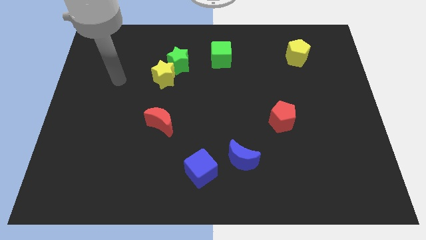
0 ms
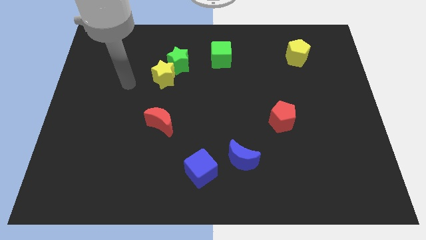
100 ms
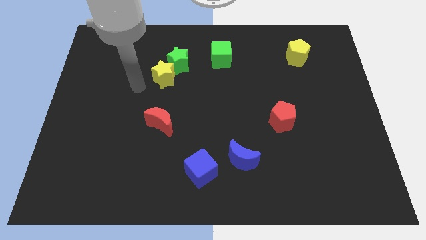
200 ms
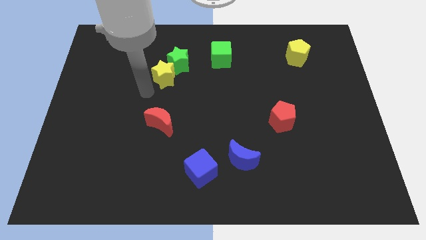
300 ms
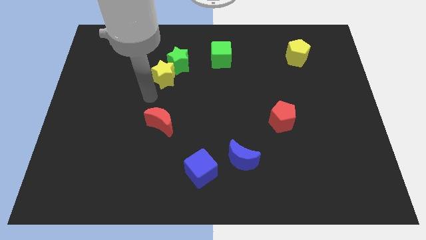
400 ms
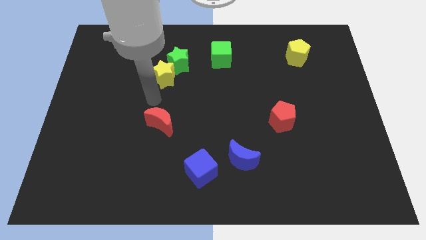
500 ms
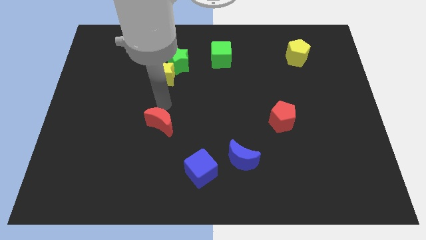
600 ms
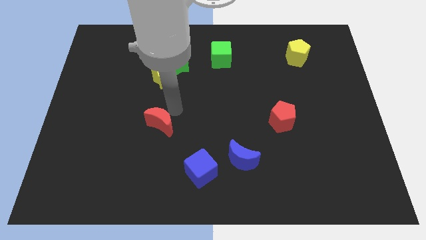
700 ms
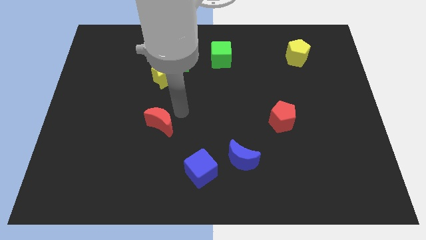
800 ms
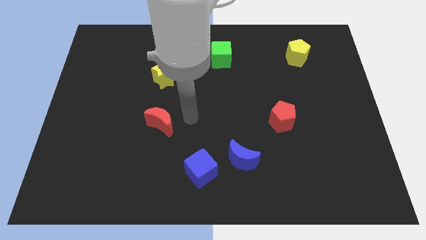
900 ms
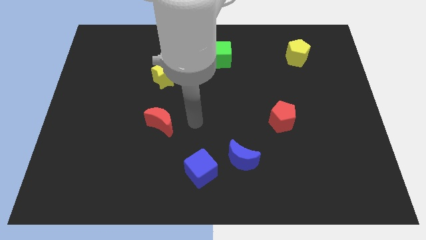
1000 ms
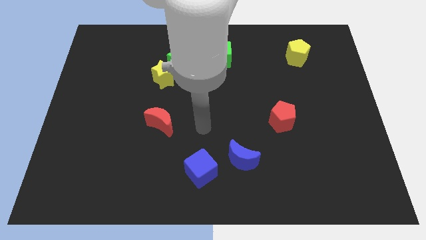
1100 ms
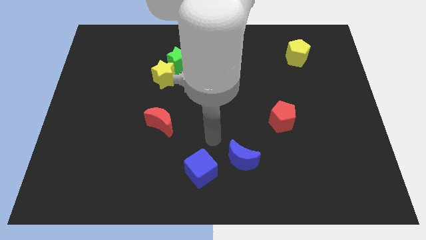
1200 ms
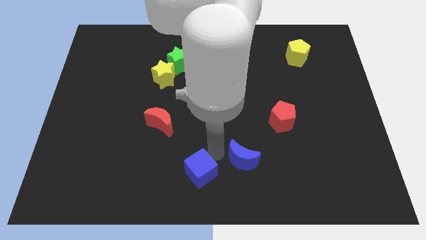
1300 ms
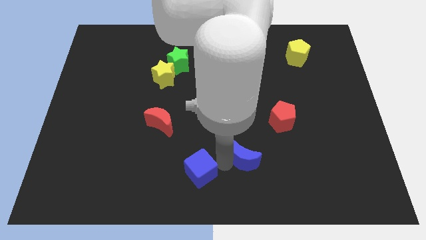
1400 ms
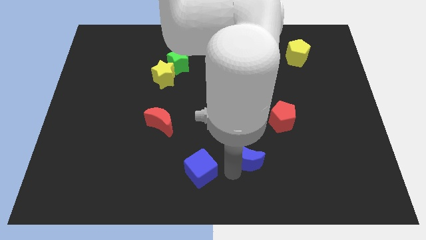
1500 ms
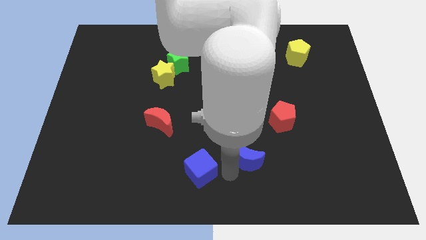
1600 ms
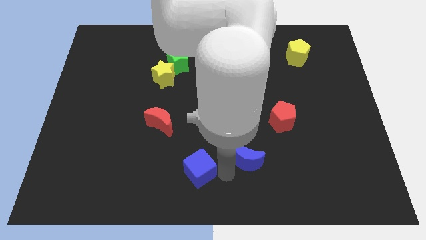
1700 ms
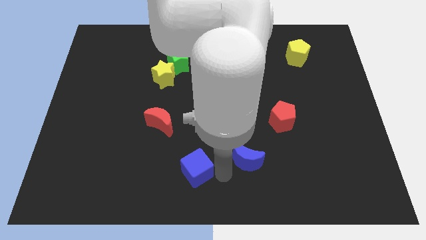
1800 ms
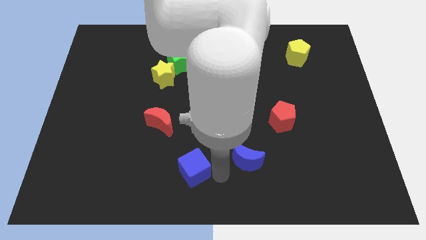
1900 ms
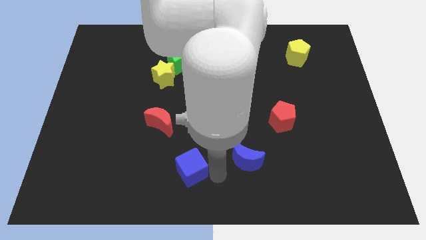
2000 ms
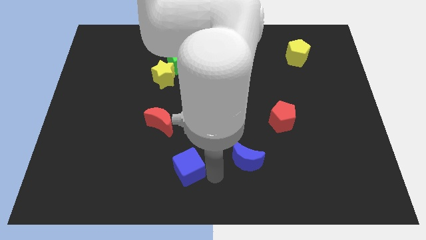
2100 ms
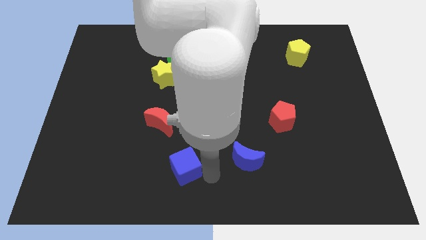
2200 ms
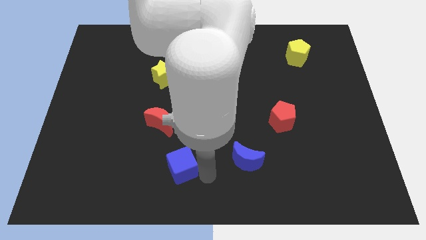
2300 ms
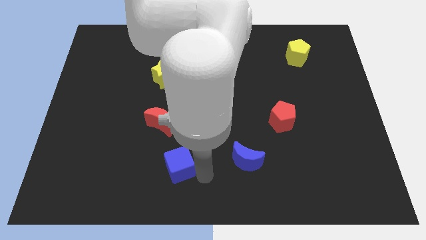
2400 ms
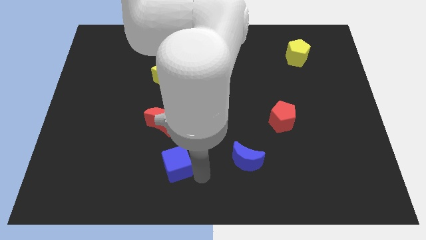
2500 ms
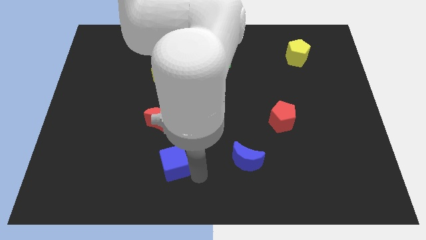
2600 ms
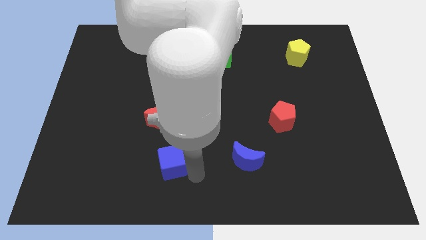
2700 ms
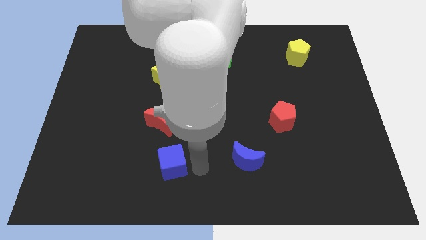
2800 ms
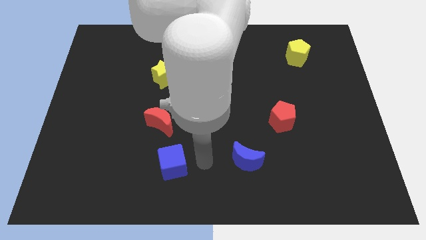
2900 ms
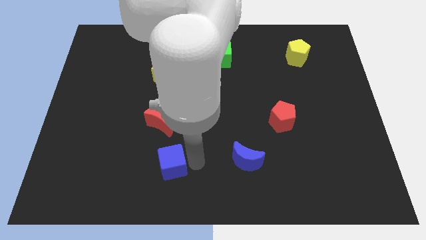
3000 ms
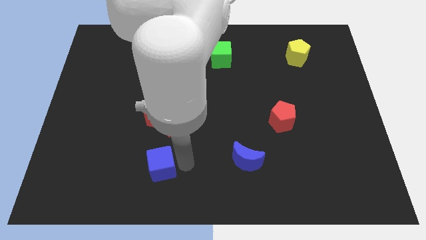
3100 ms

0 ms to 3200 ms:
slide the blue cube slightly to the left

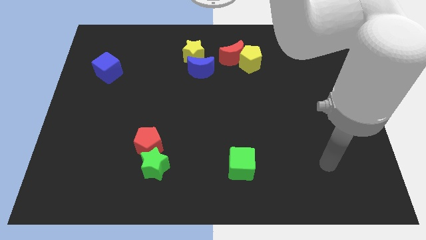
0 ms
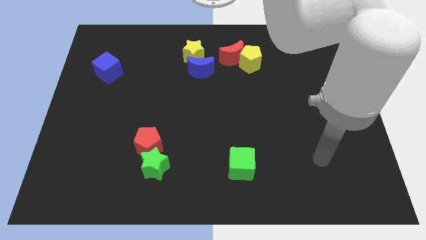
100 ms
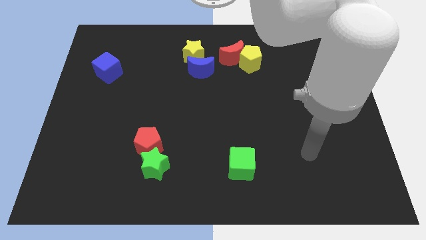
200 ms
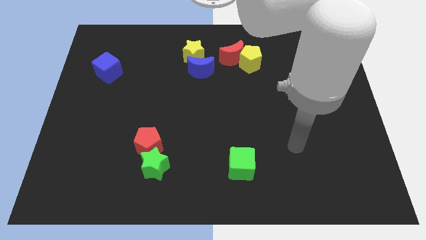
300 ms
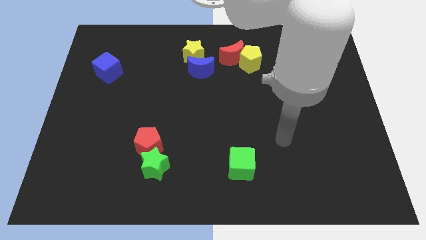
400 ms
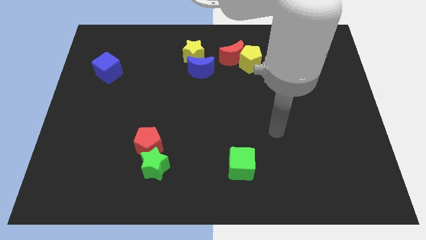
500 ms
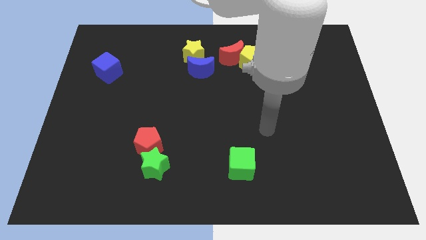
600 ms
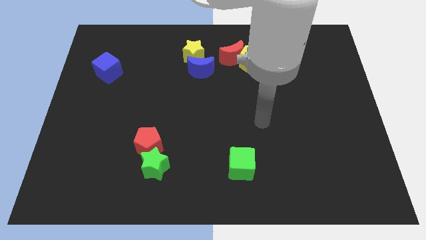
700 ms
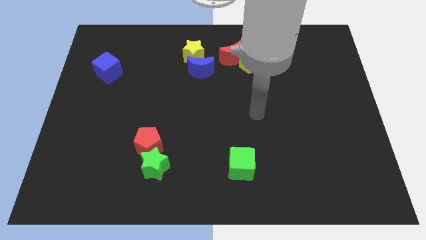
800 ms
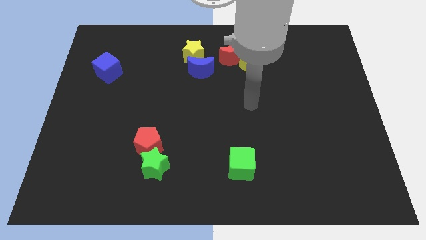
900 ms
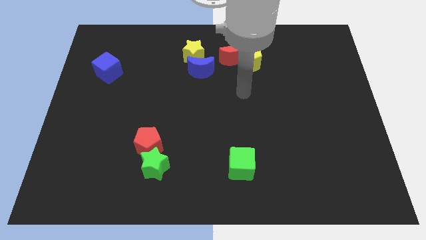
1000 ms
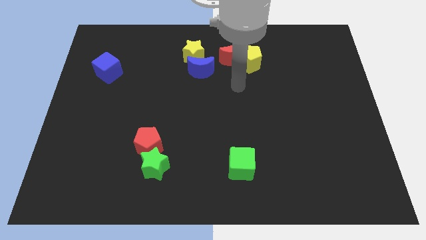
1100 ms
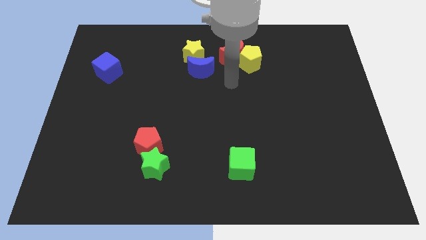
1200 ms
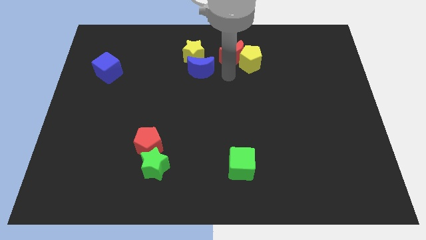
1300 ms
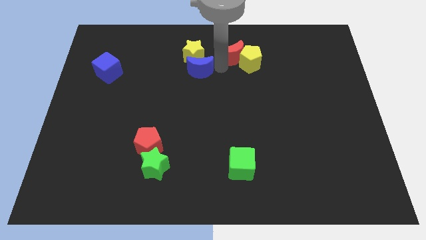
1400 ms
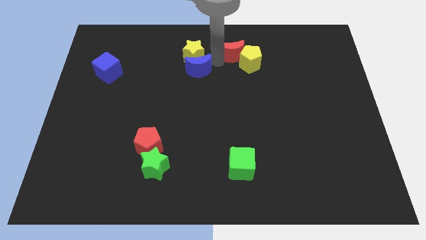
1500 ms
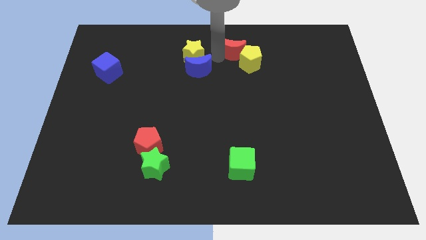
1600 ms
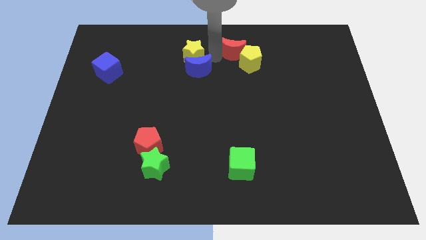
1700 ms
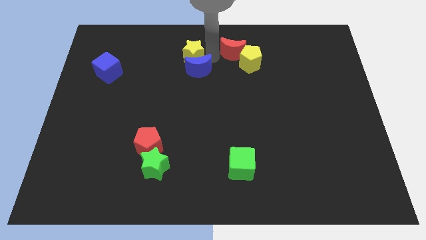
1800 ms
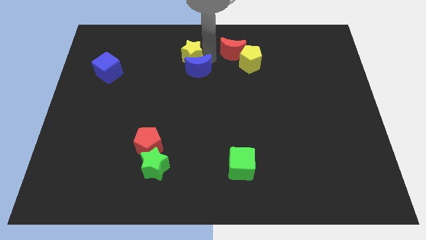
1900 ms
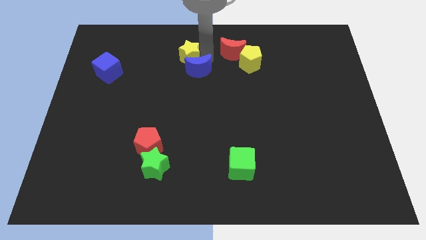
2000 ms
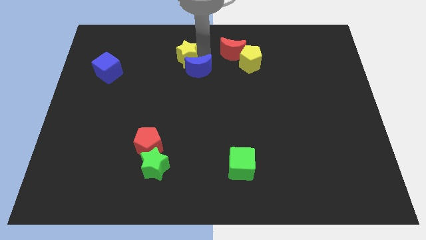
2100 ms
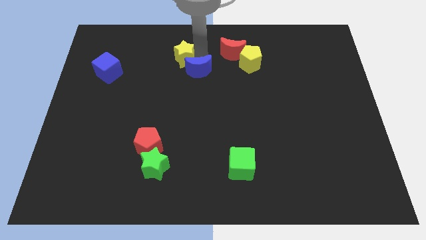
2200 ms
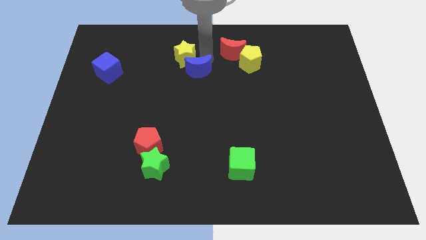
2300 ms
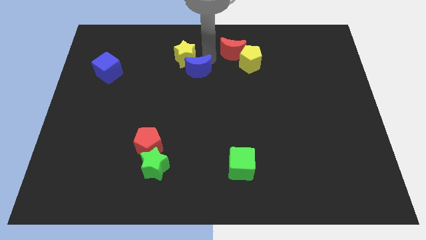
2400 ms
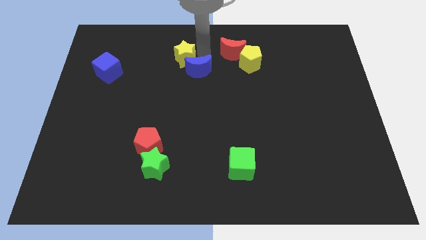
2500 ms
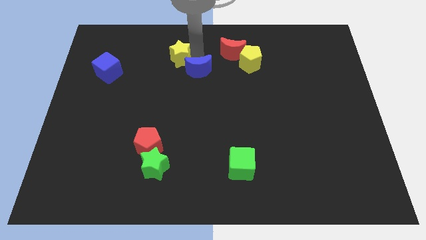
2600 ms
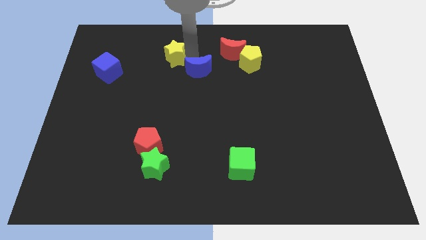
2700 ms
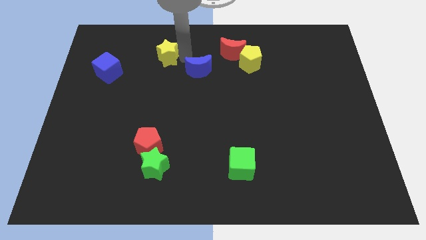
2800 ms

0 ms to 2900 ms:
move the yellow star slightly left

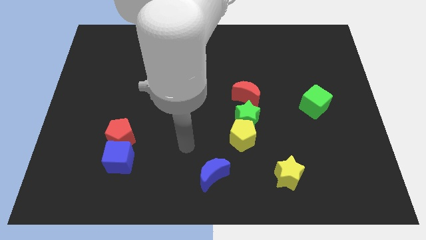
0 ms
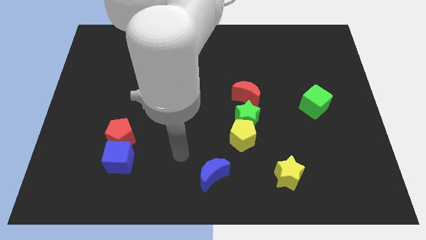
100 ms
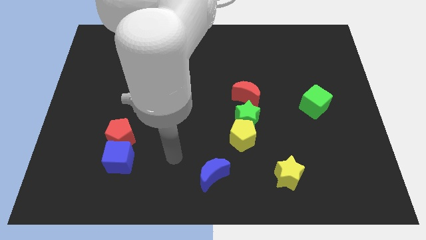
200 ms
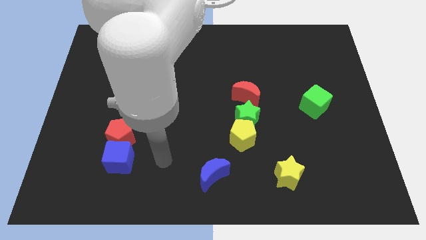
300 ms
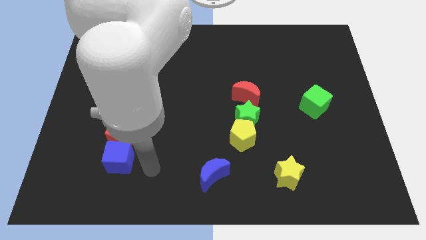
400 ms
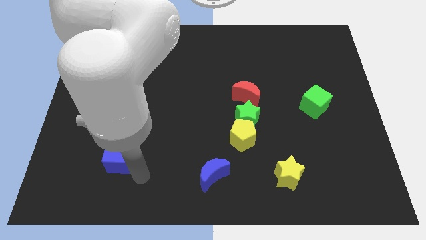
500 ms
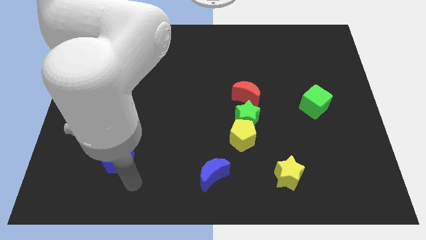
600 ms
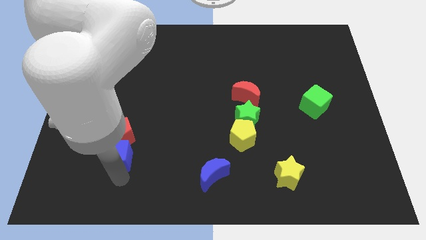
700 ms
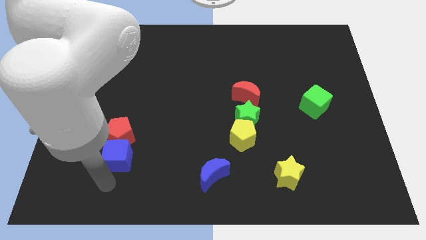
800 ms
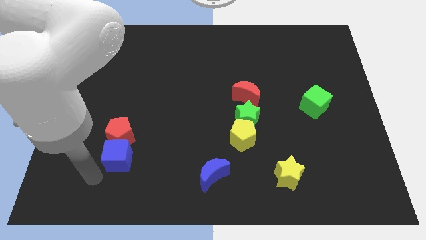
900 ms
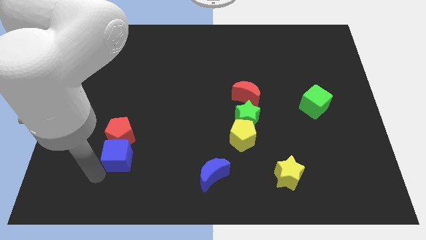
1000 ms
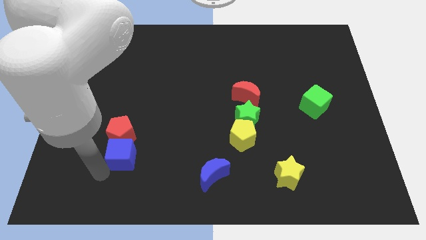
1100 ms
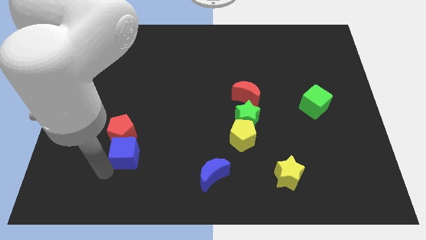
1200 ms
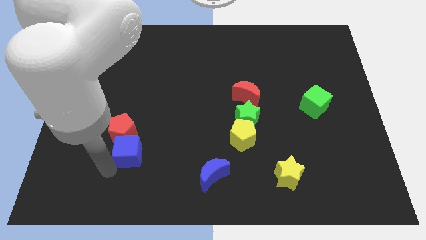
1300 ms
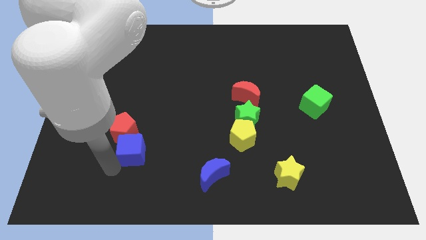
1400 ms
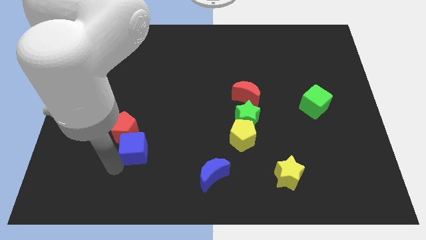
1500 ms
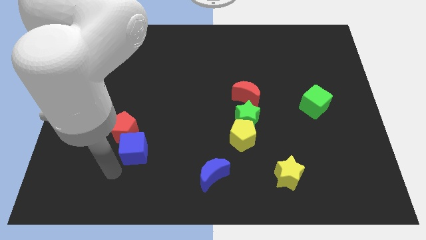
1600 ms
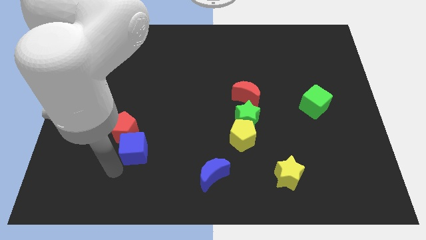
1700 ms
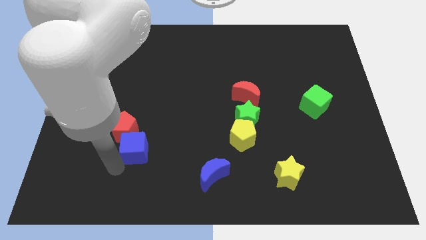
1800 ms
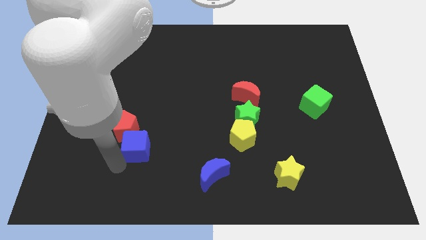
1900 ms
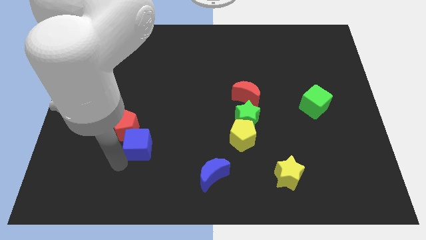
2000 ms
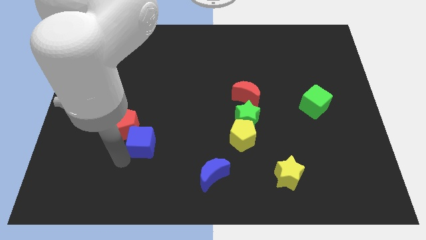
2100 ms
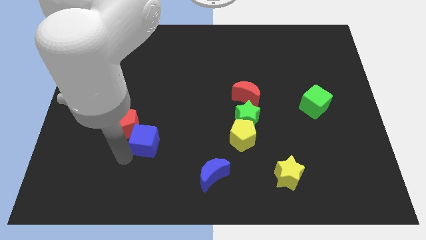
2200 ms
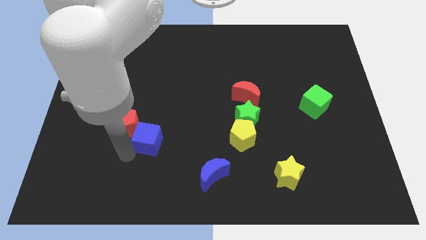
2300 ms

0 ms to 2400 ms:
move the blue cube upwards and then right a little
